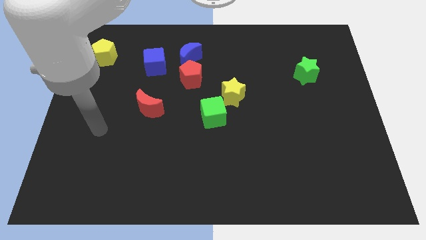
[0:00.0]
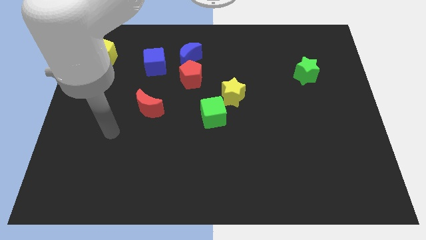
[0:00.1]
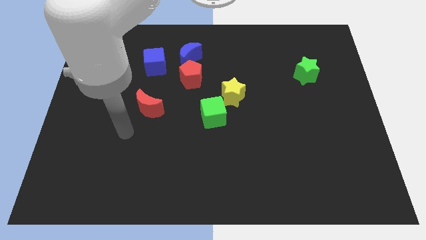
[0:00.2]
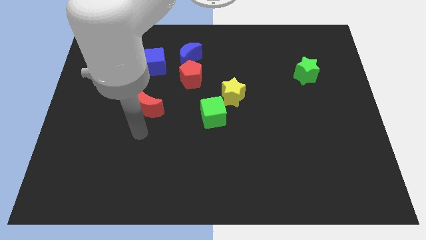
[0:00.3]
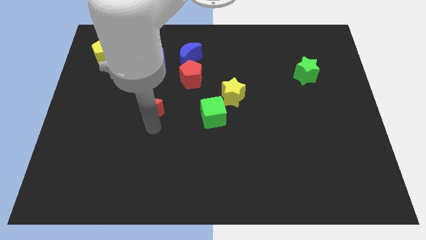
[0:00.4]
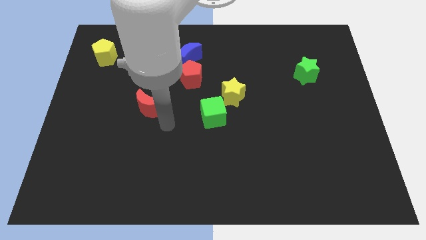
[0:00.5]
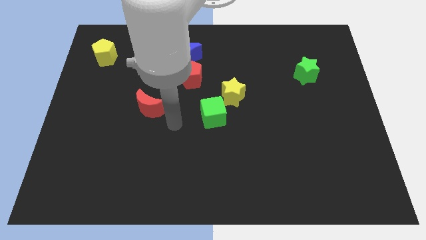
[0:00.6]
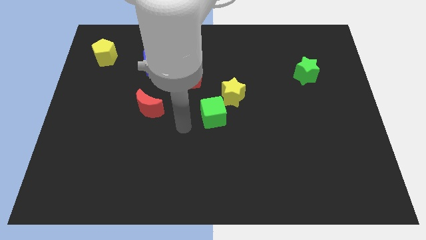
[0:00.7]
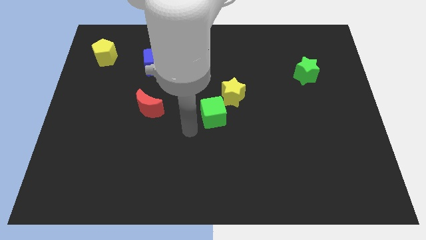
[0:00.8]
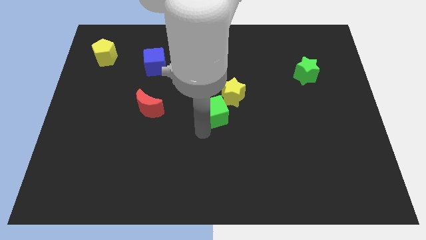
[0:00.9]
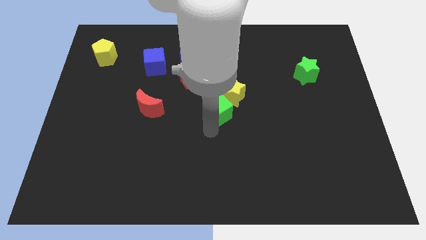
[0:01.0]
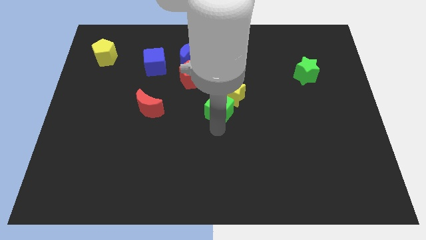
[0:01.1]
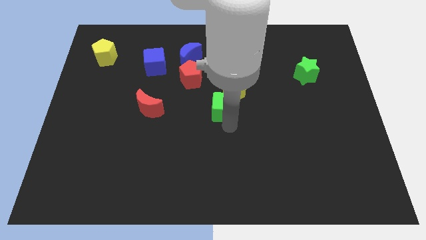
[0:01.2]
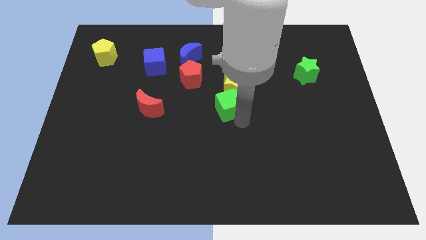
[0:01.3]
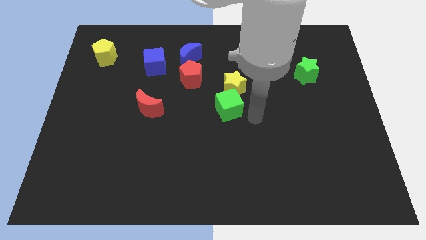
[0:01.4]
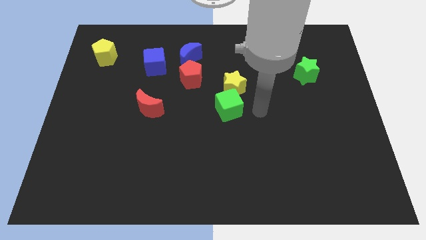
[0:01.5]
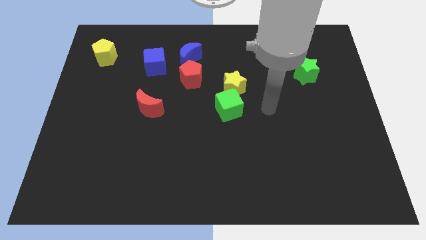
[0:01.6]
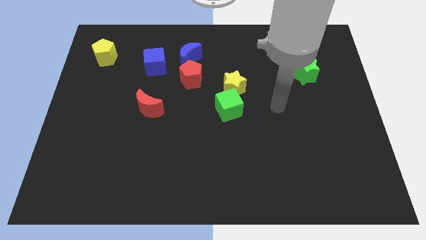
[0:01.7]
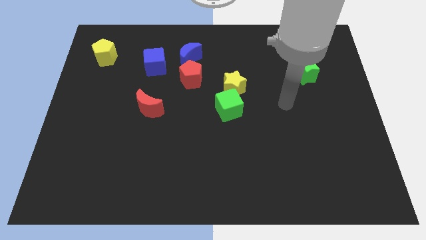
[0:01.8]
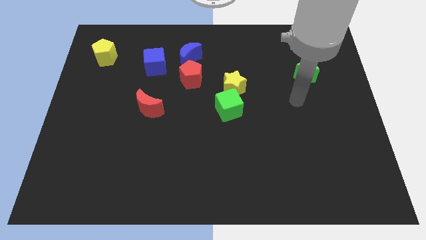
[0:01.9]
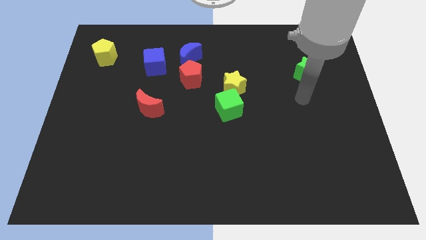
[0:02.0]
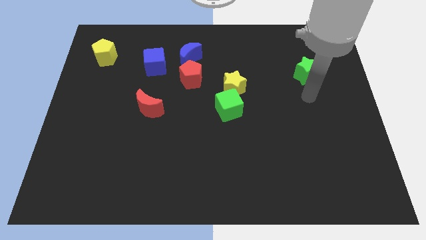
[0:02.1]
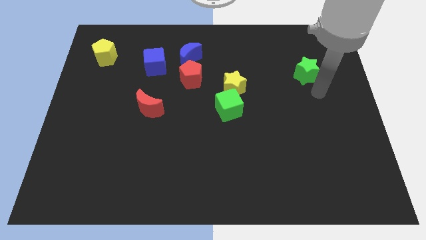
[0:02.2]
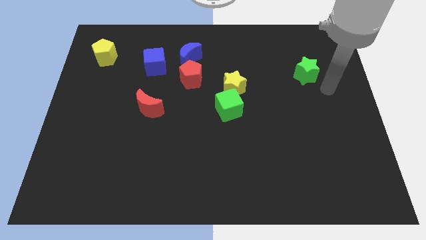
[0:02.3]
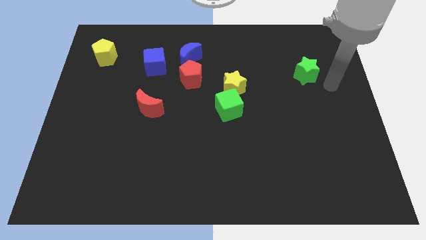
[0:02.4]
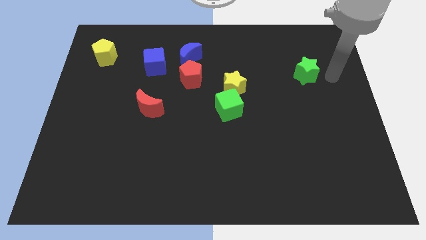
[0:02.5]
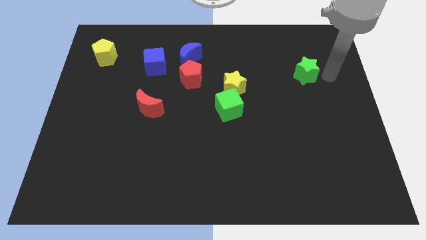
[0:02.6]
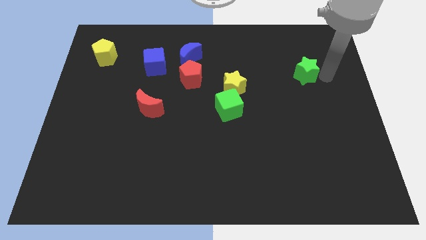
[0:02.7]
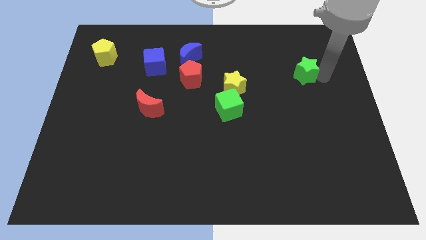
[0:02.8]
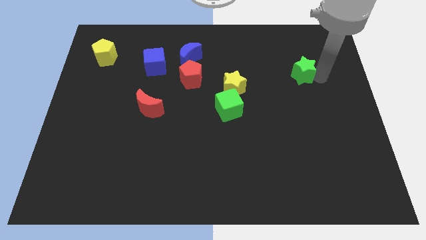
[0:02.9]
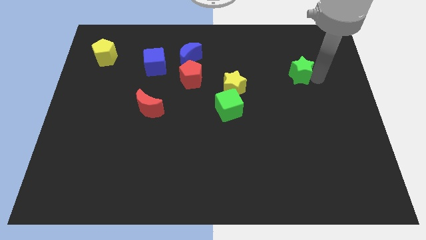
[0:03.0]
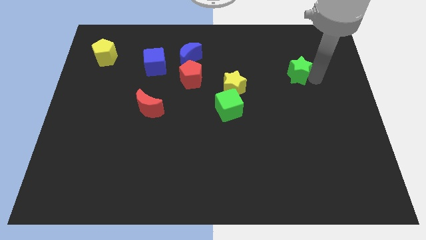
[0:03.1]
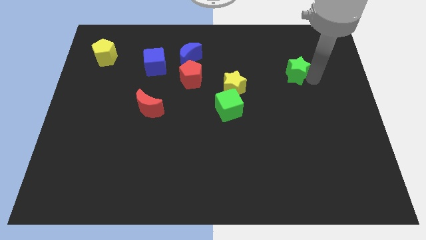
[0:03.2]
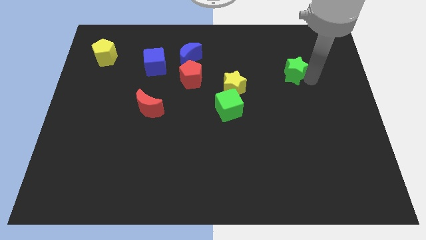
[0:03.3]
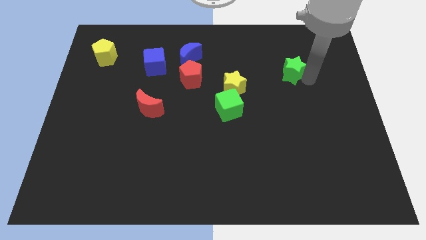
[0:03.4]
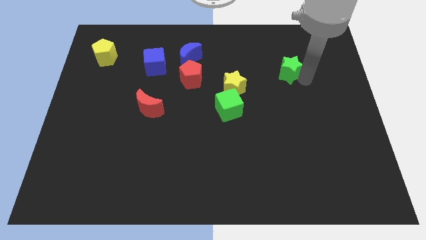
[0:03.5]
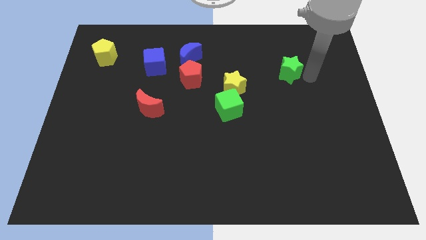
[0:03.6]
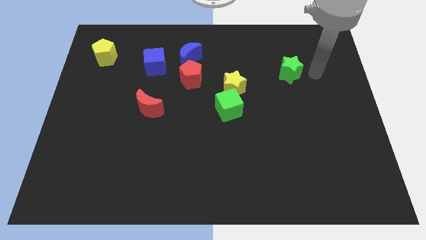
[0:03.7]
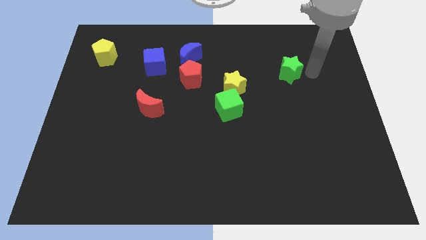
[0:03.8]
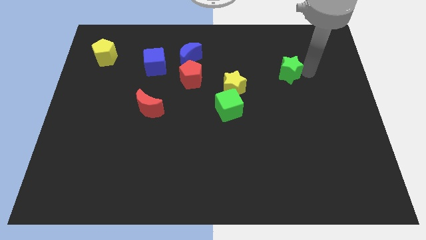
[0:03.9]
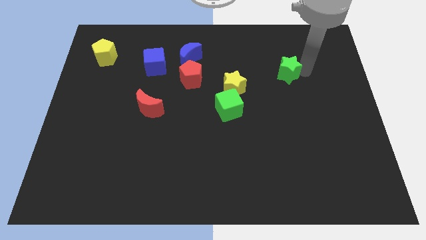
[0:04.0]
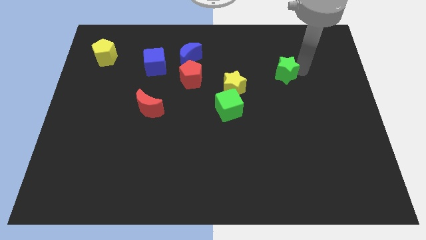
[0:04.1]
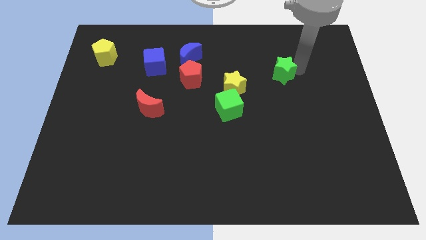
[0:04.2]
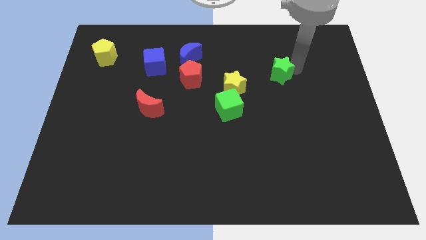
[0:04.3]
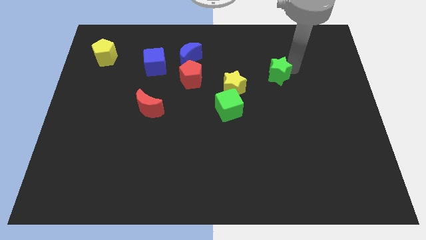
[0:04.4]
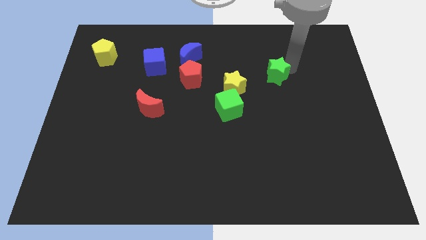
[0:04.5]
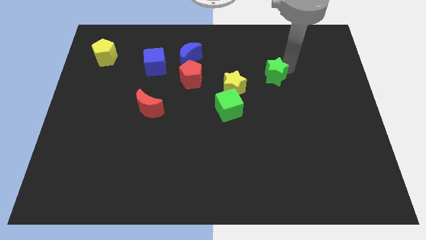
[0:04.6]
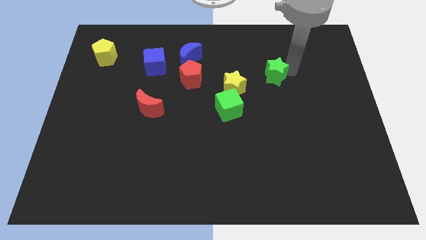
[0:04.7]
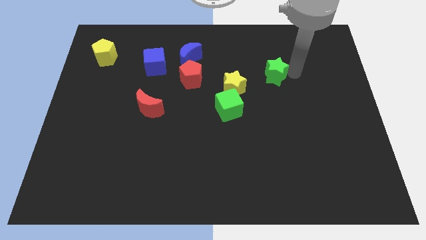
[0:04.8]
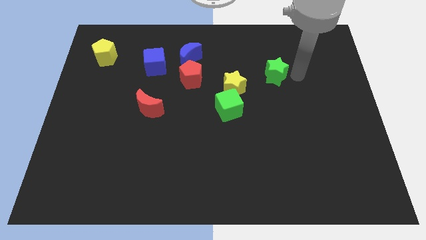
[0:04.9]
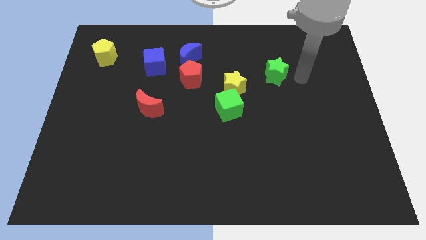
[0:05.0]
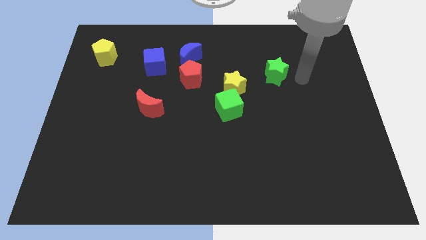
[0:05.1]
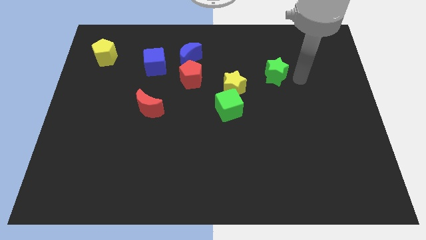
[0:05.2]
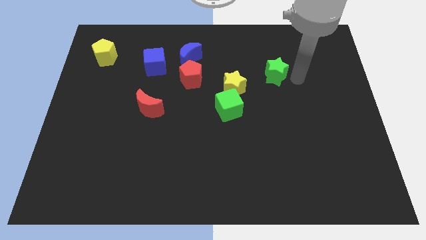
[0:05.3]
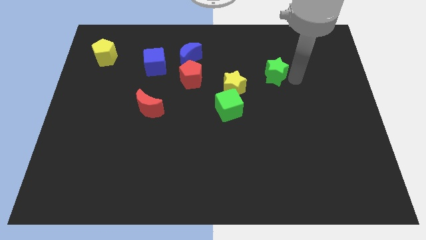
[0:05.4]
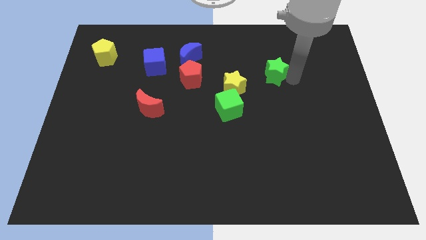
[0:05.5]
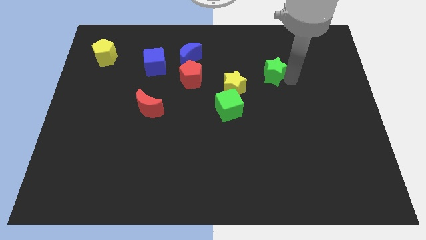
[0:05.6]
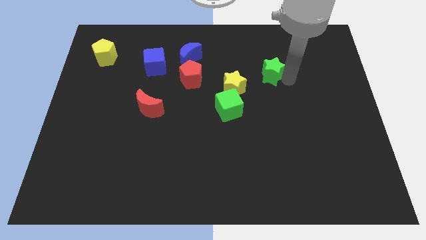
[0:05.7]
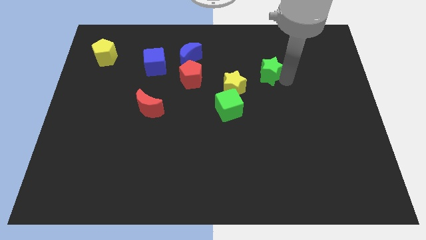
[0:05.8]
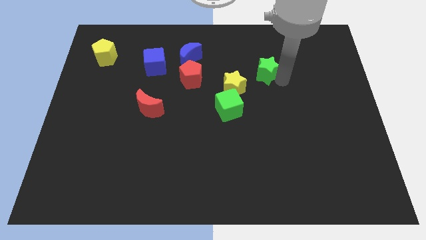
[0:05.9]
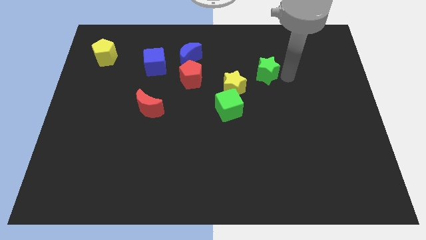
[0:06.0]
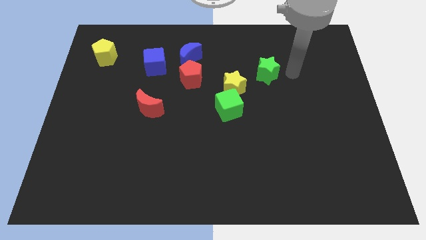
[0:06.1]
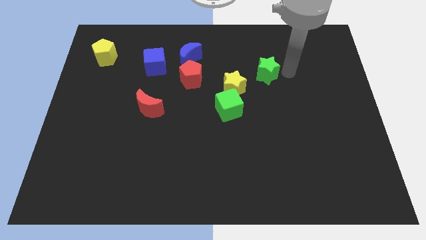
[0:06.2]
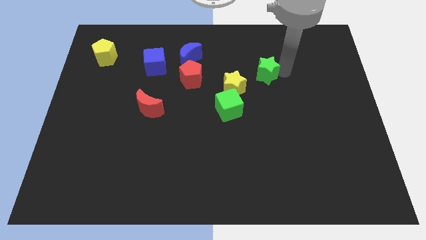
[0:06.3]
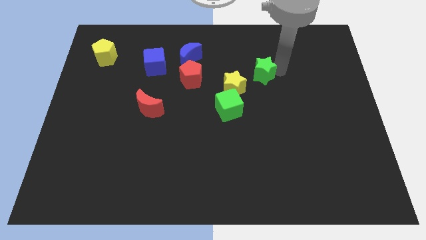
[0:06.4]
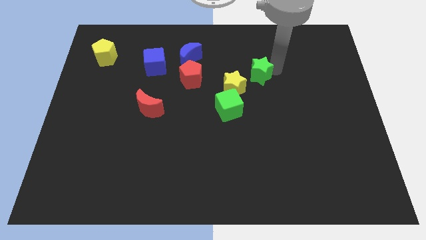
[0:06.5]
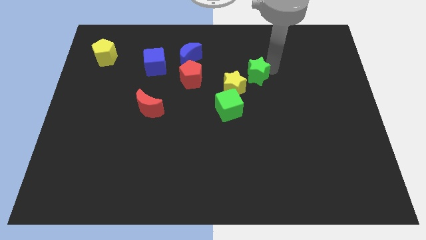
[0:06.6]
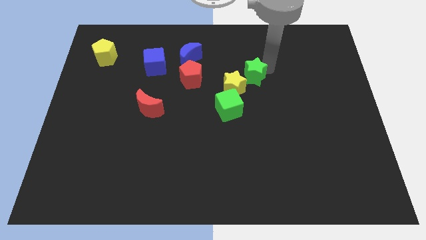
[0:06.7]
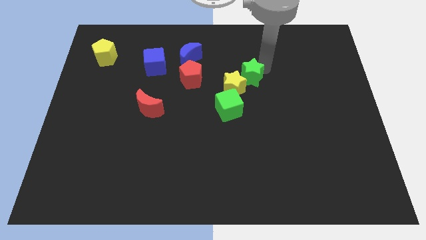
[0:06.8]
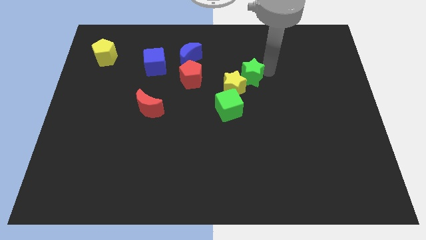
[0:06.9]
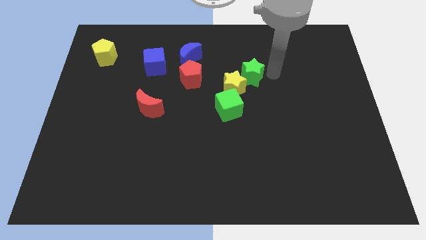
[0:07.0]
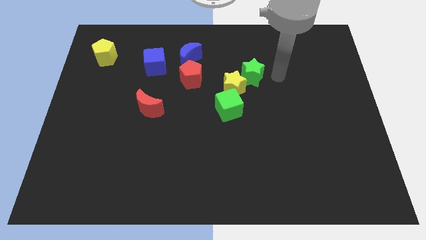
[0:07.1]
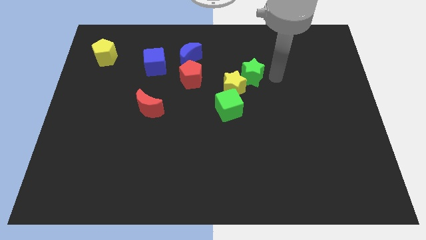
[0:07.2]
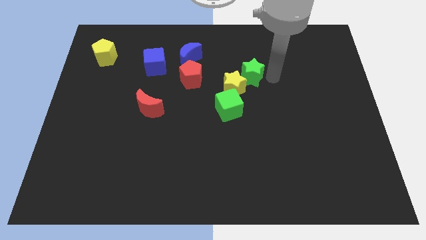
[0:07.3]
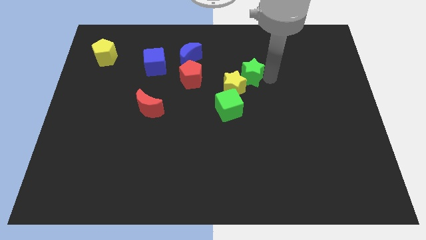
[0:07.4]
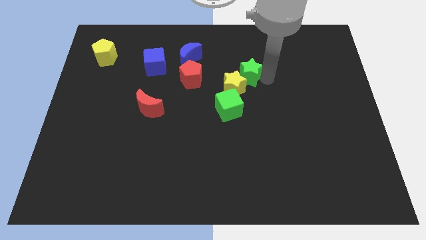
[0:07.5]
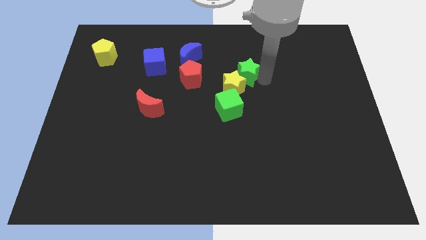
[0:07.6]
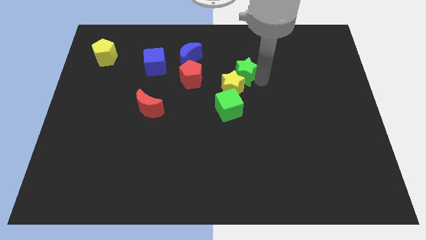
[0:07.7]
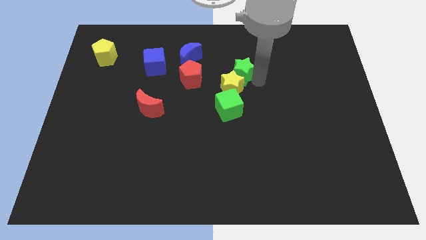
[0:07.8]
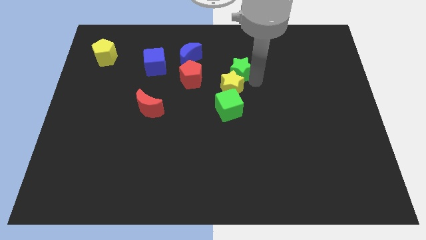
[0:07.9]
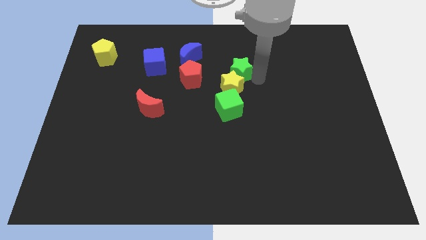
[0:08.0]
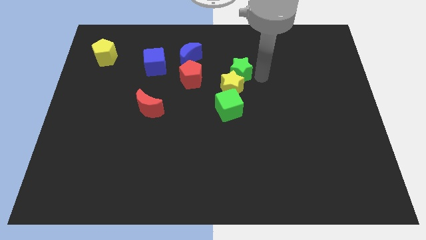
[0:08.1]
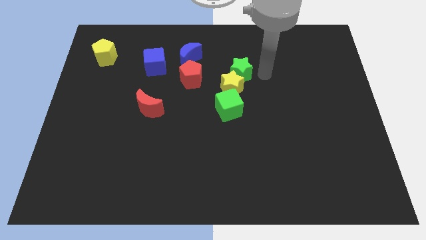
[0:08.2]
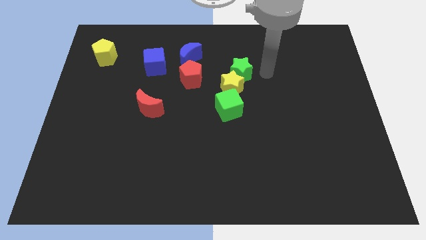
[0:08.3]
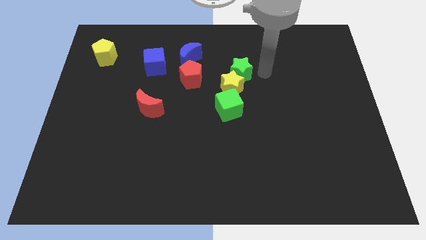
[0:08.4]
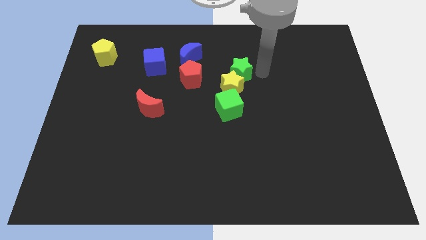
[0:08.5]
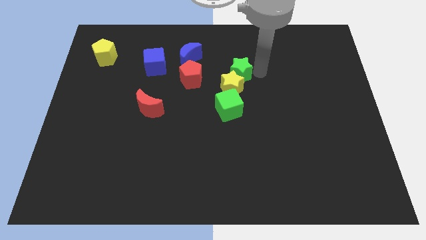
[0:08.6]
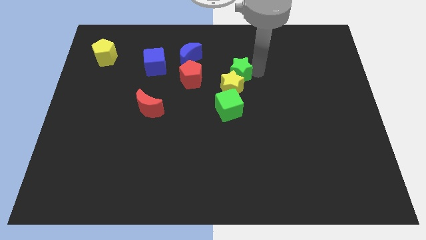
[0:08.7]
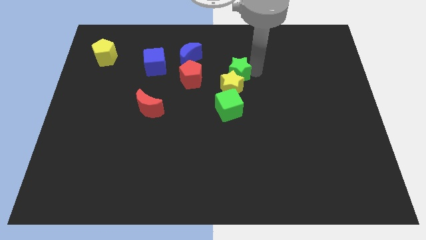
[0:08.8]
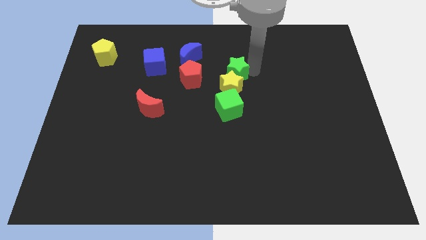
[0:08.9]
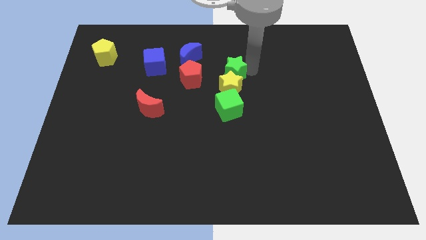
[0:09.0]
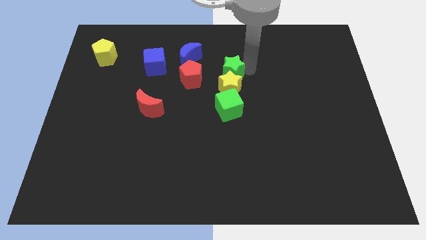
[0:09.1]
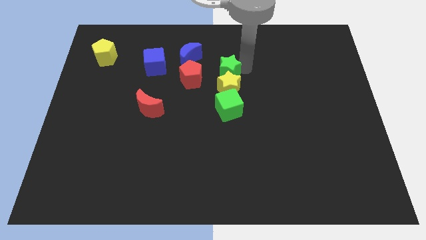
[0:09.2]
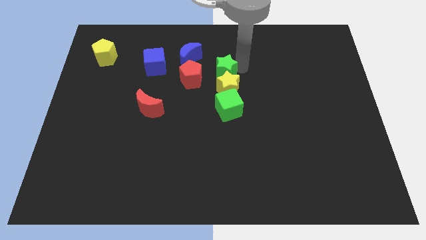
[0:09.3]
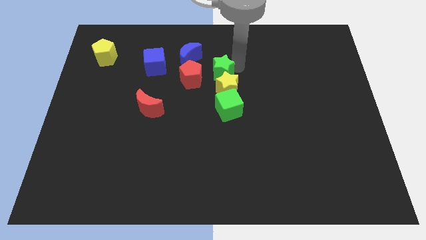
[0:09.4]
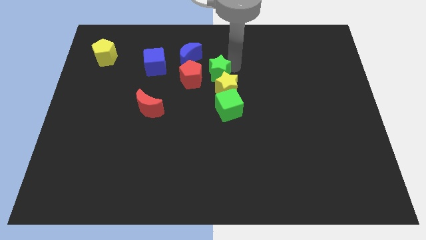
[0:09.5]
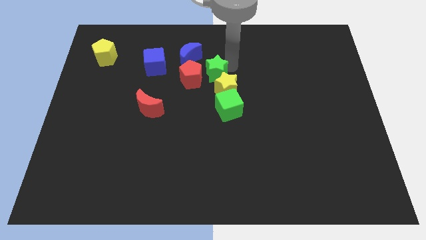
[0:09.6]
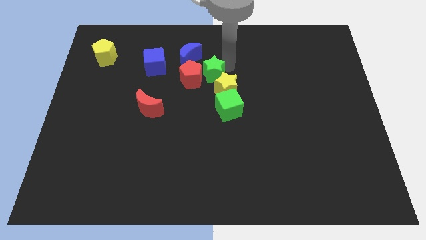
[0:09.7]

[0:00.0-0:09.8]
put the green star to the red pentagon
